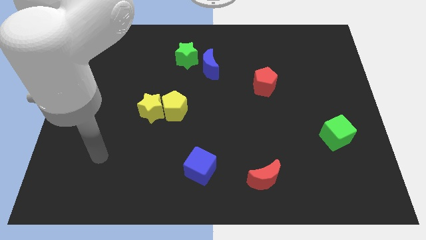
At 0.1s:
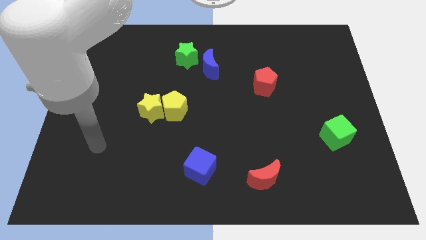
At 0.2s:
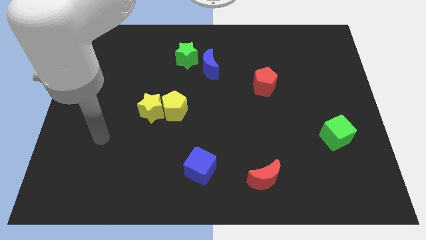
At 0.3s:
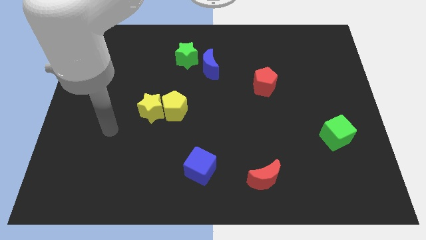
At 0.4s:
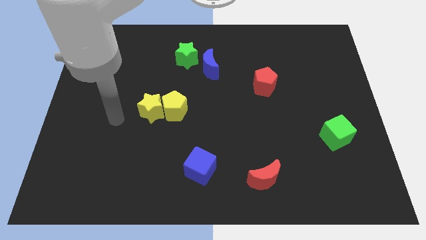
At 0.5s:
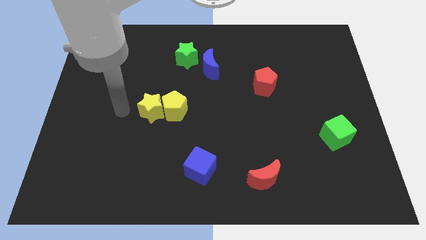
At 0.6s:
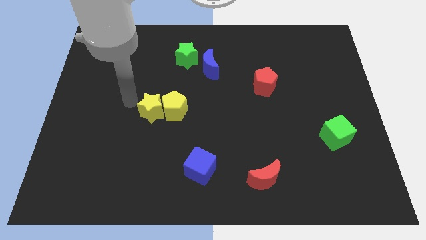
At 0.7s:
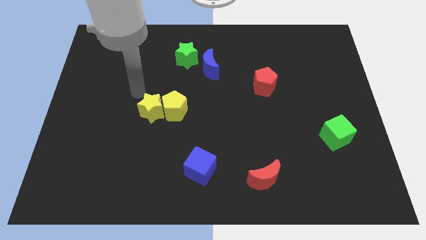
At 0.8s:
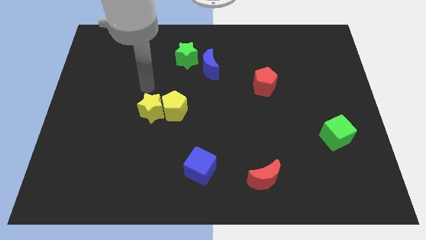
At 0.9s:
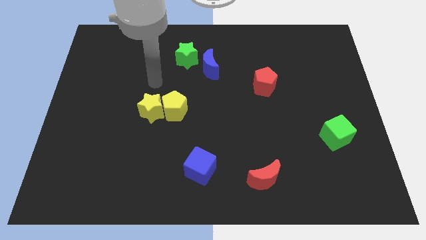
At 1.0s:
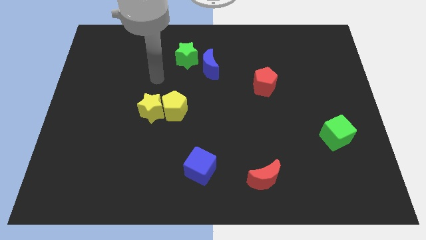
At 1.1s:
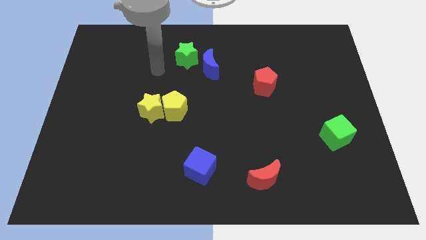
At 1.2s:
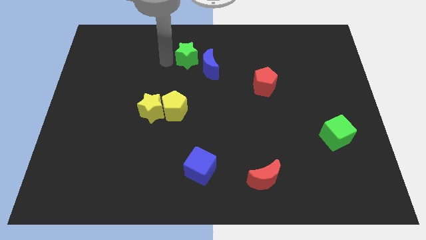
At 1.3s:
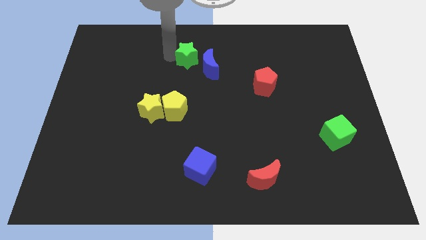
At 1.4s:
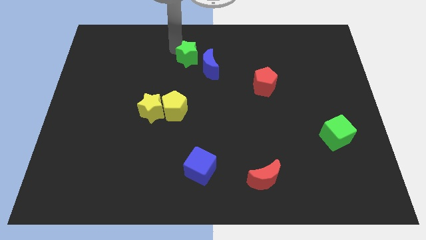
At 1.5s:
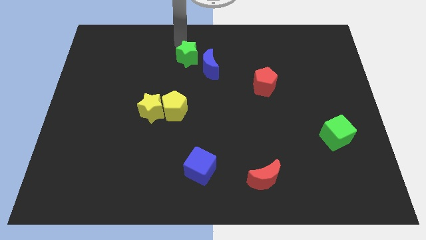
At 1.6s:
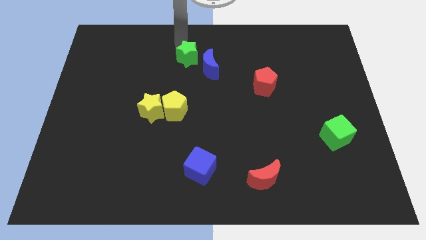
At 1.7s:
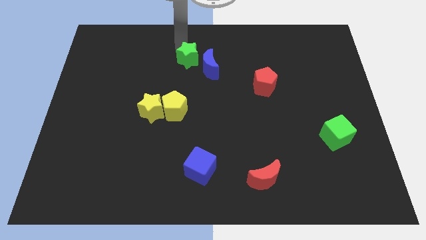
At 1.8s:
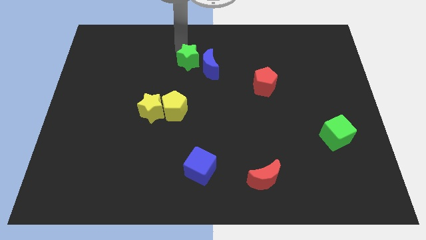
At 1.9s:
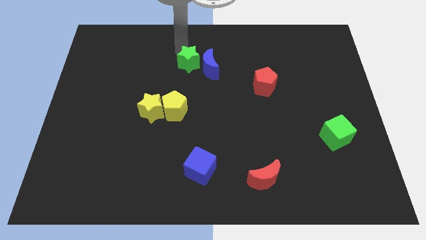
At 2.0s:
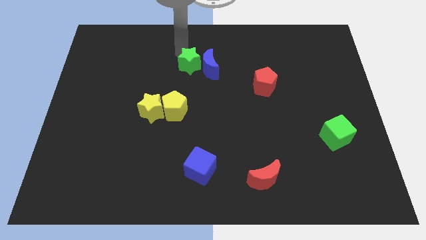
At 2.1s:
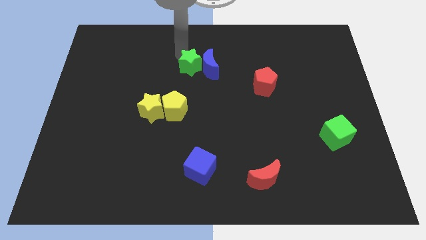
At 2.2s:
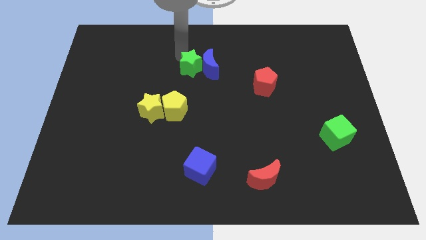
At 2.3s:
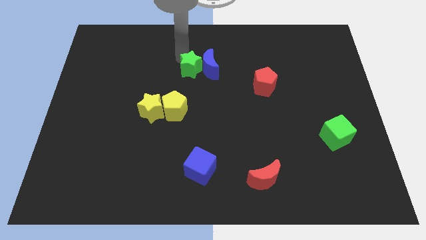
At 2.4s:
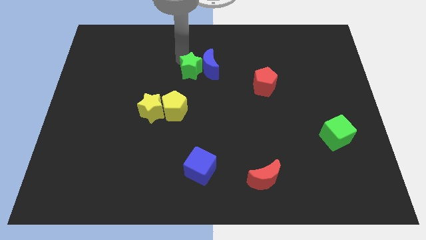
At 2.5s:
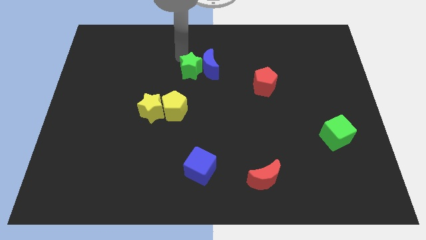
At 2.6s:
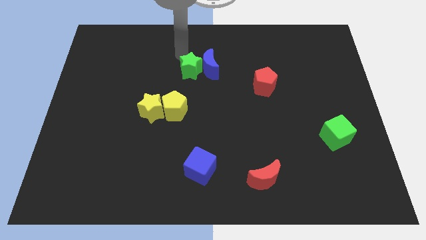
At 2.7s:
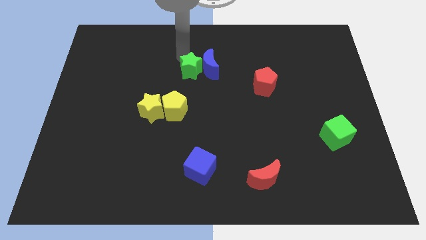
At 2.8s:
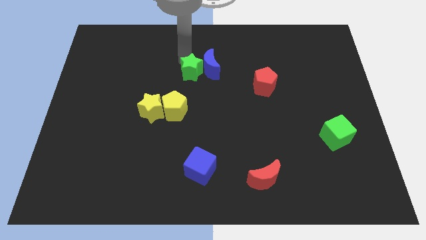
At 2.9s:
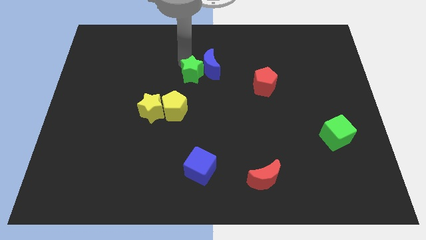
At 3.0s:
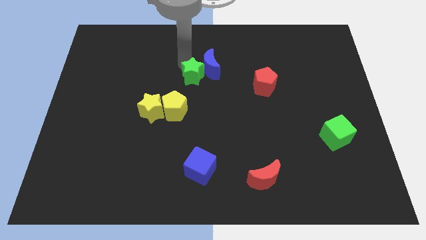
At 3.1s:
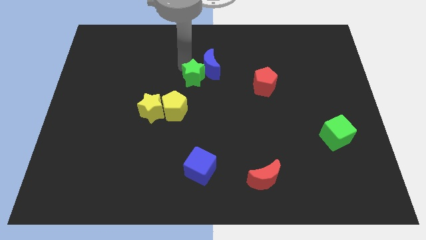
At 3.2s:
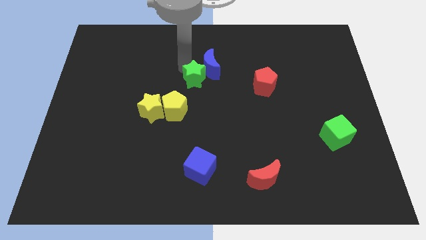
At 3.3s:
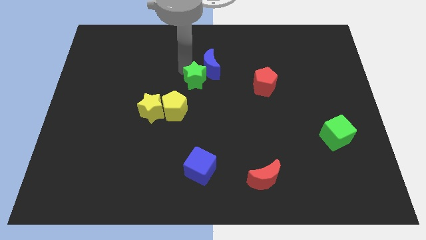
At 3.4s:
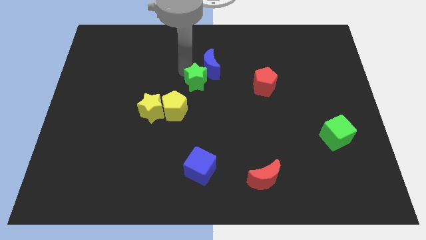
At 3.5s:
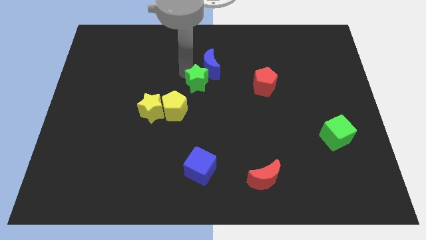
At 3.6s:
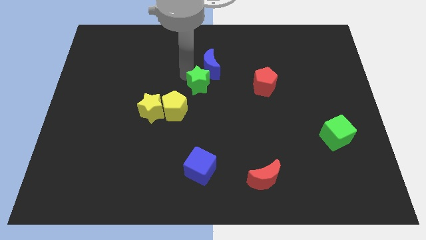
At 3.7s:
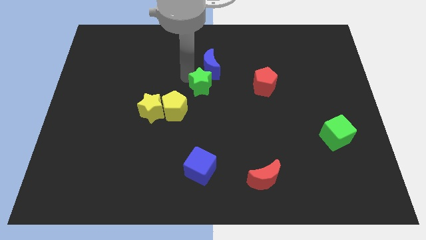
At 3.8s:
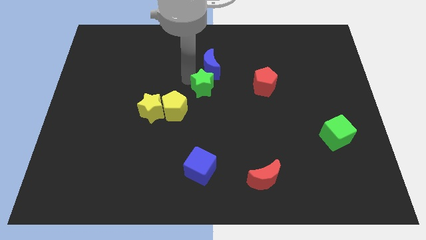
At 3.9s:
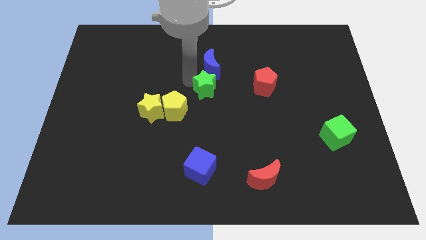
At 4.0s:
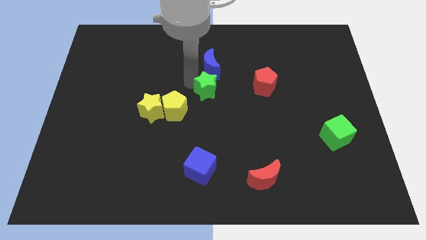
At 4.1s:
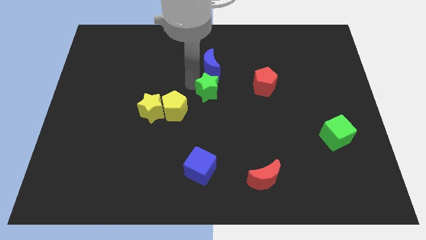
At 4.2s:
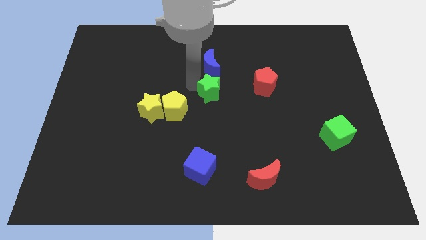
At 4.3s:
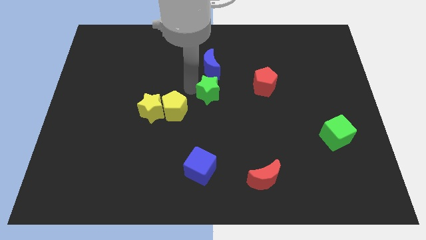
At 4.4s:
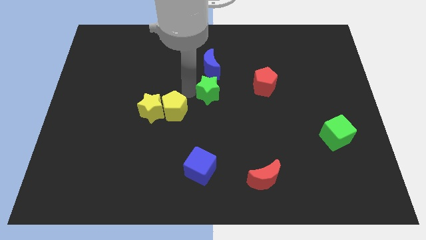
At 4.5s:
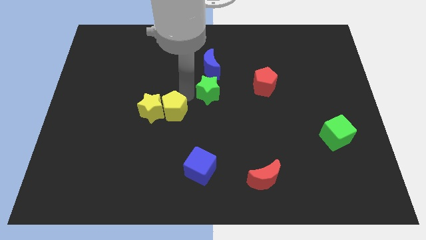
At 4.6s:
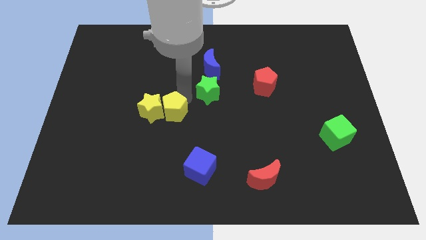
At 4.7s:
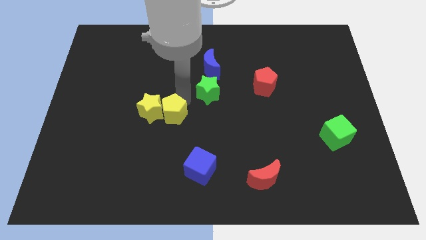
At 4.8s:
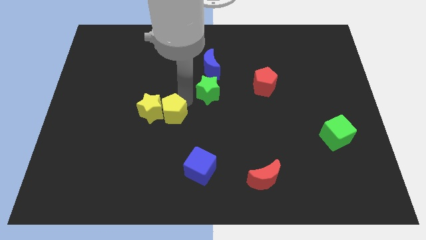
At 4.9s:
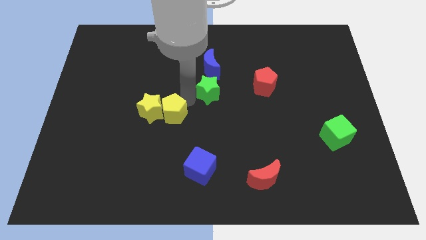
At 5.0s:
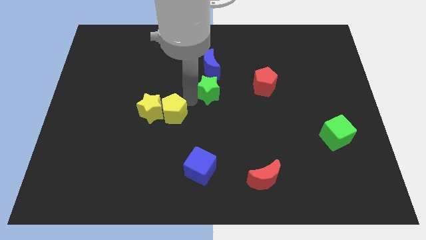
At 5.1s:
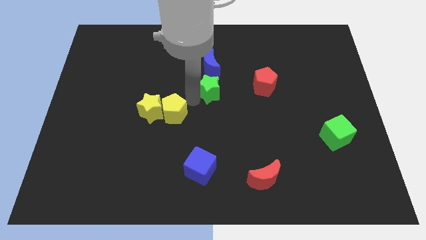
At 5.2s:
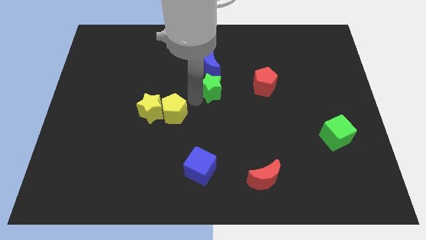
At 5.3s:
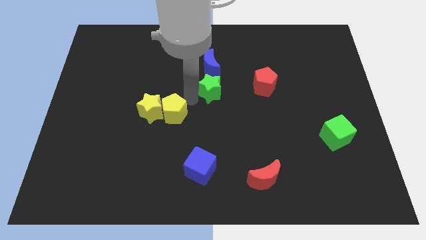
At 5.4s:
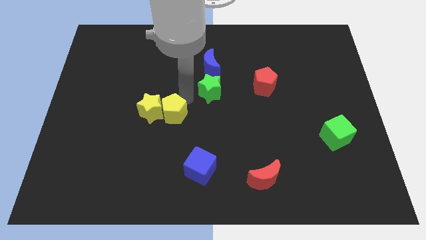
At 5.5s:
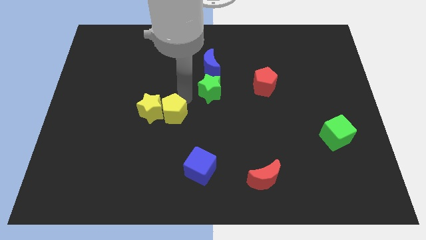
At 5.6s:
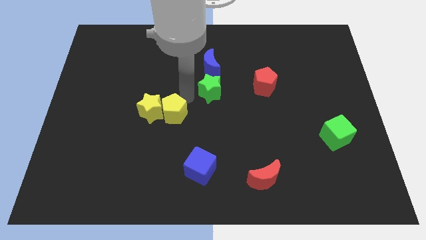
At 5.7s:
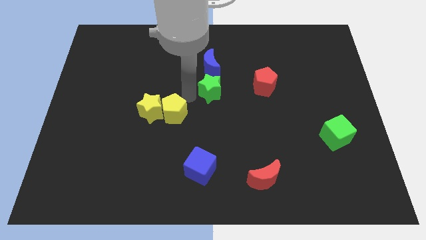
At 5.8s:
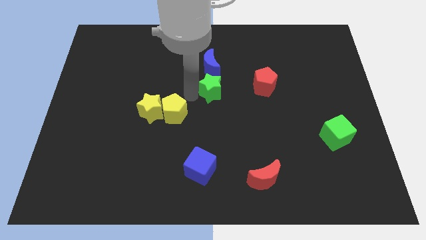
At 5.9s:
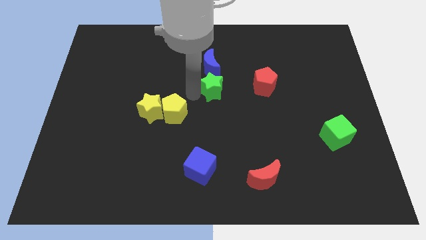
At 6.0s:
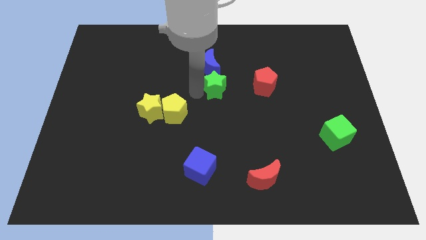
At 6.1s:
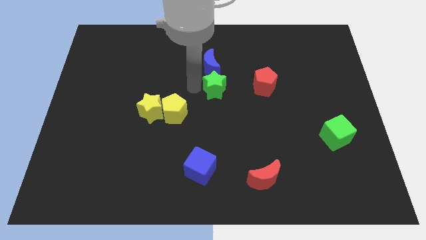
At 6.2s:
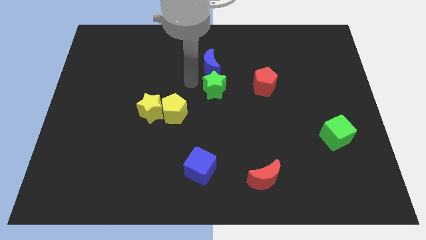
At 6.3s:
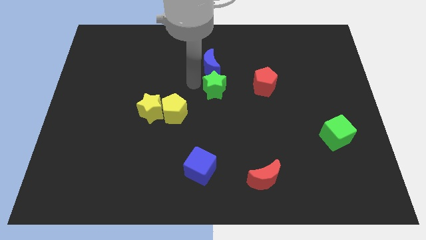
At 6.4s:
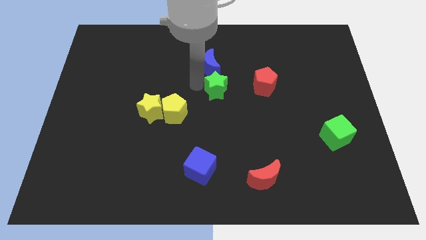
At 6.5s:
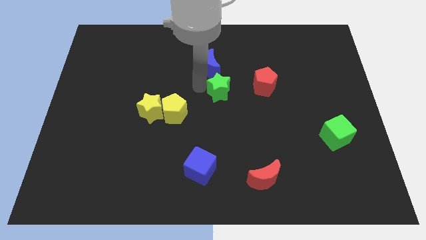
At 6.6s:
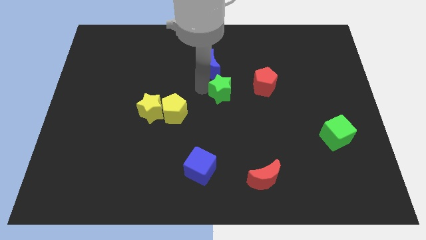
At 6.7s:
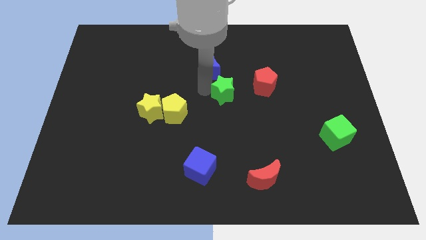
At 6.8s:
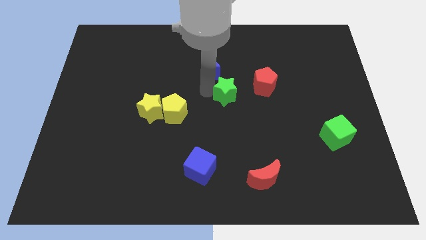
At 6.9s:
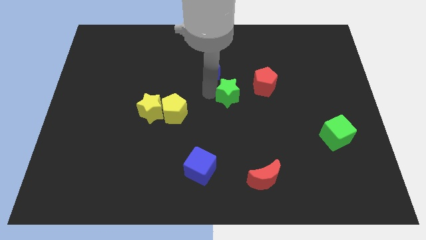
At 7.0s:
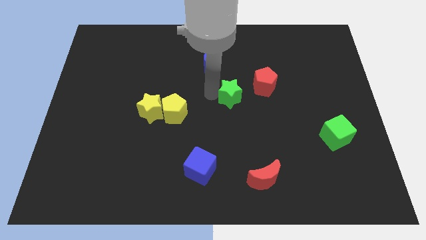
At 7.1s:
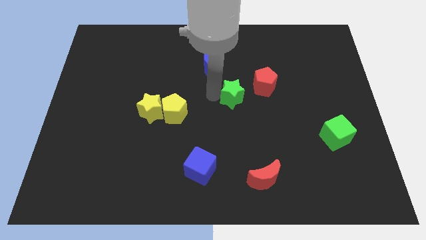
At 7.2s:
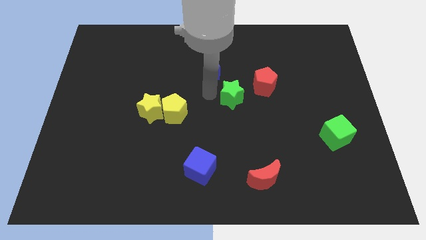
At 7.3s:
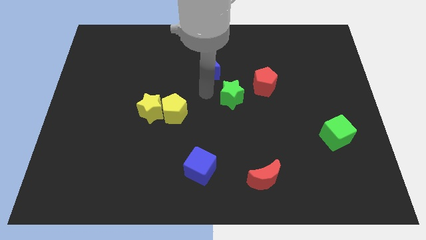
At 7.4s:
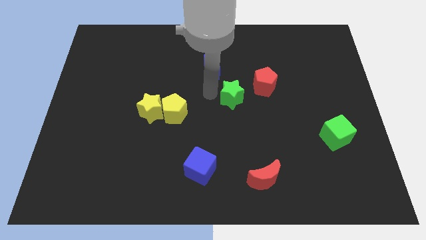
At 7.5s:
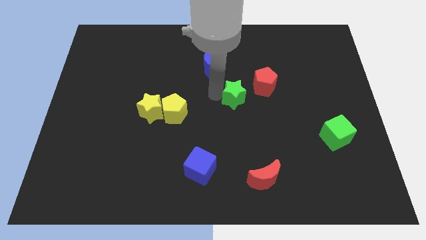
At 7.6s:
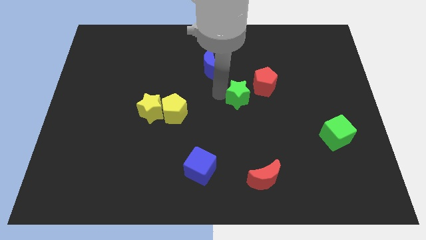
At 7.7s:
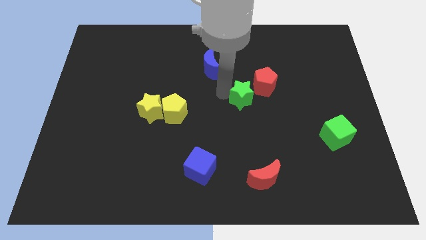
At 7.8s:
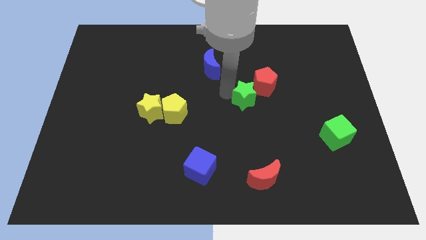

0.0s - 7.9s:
push the green star downwards and to the right
